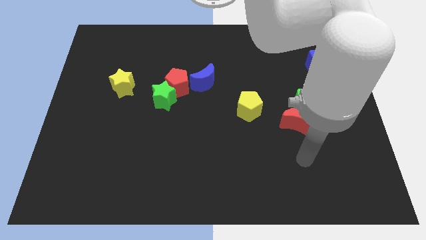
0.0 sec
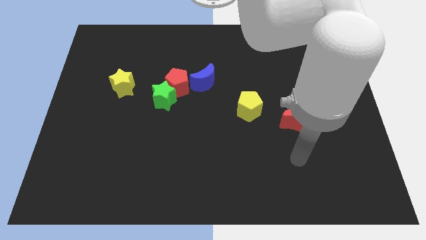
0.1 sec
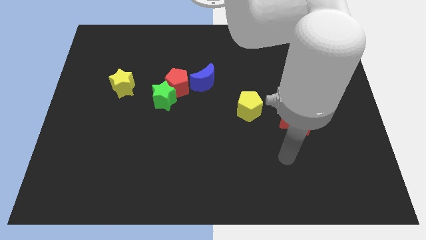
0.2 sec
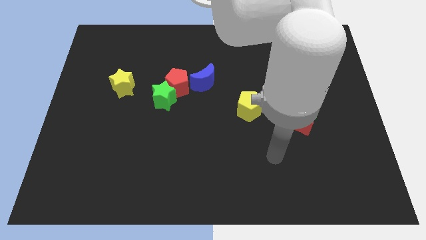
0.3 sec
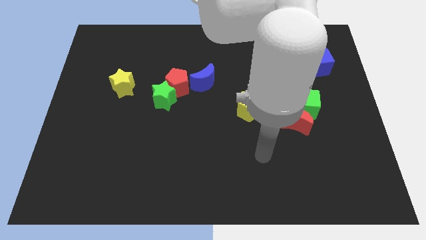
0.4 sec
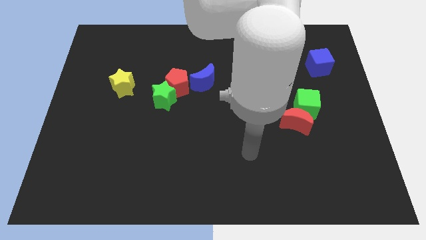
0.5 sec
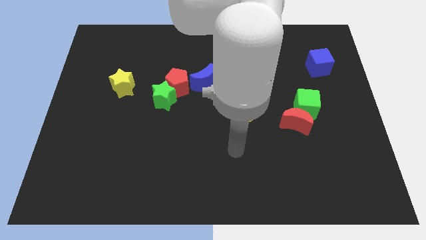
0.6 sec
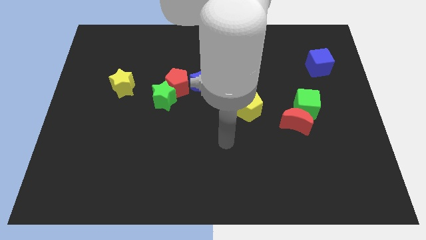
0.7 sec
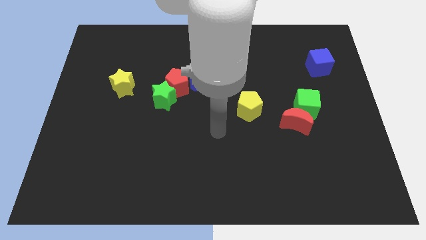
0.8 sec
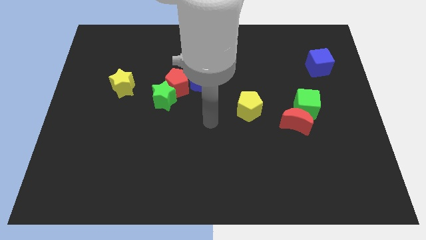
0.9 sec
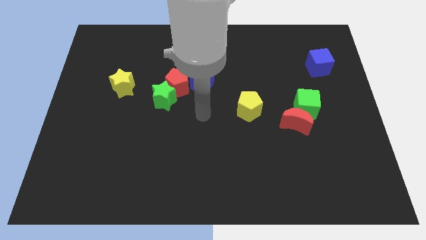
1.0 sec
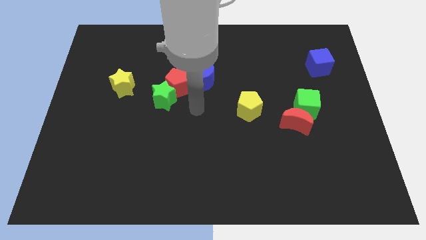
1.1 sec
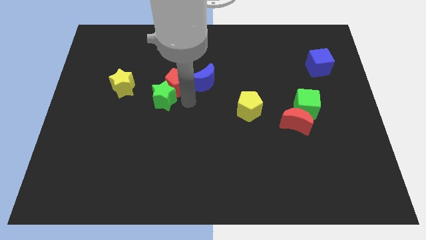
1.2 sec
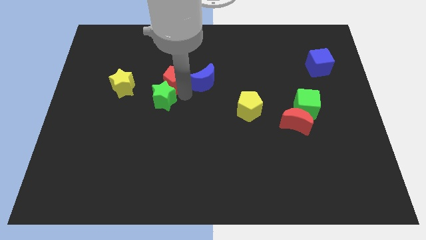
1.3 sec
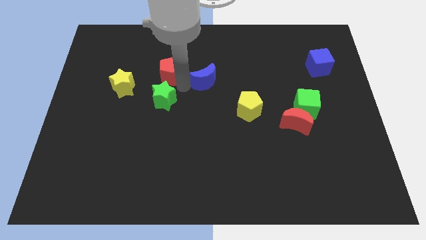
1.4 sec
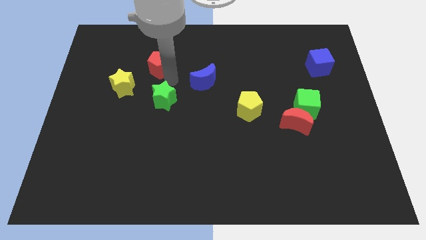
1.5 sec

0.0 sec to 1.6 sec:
pull the green star apart from the red pentagon

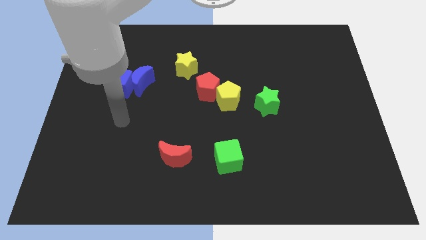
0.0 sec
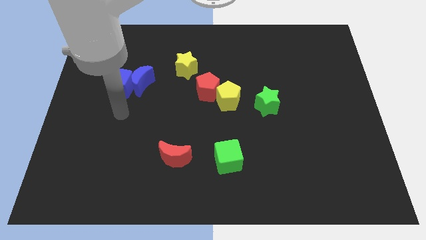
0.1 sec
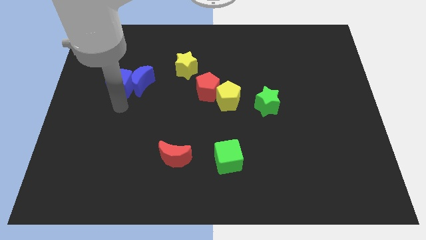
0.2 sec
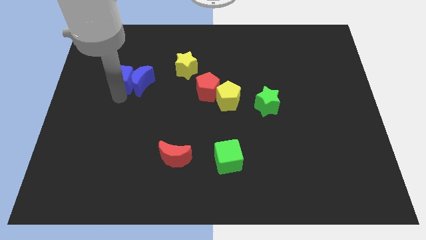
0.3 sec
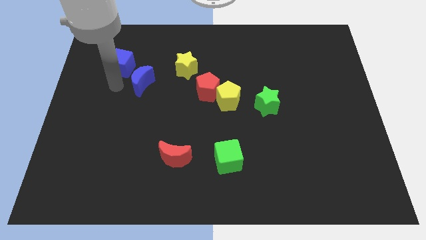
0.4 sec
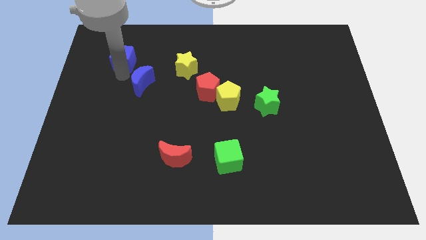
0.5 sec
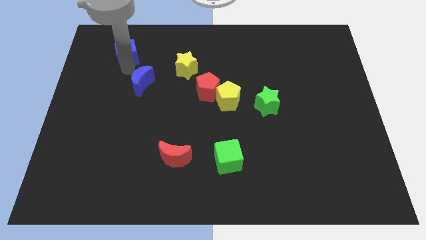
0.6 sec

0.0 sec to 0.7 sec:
move the blue moon away from the blue cube

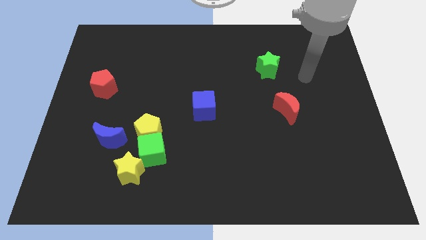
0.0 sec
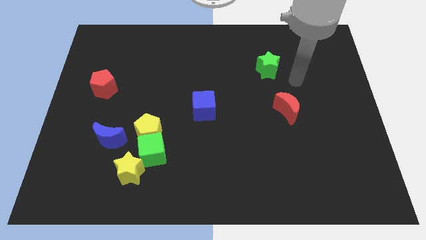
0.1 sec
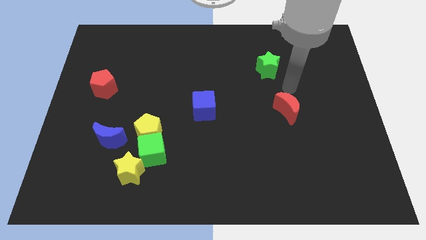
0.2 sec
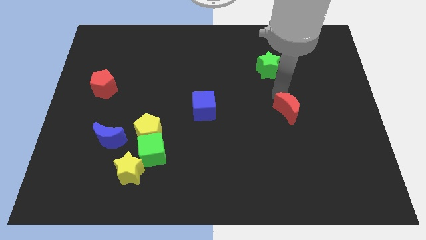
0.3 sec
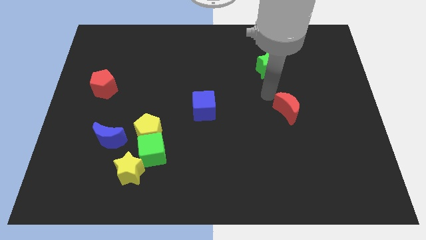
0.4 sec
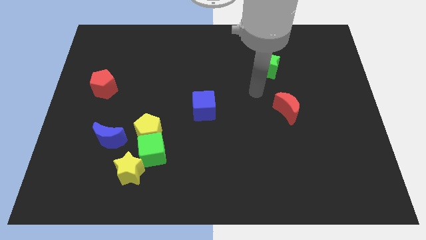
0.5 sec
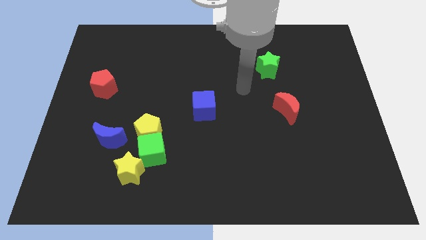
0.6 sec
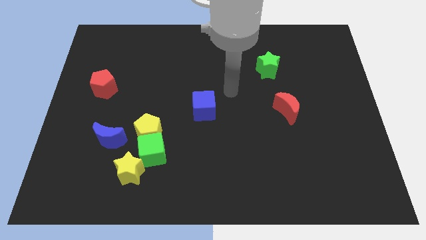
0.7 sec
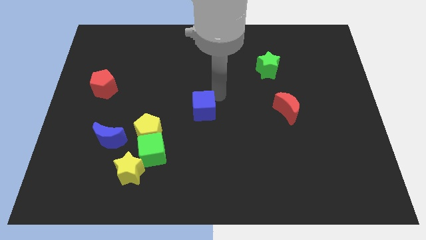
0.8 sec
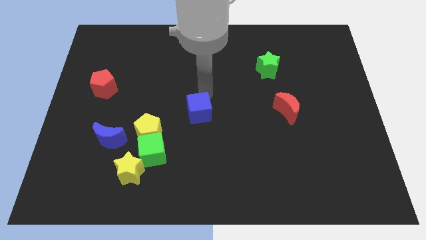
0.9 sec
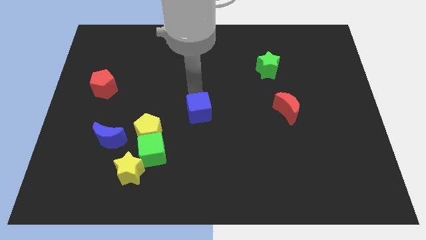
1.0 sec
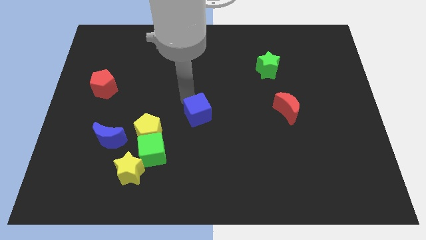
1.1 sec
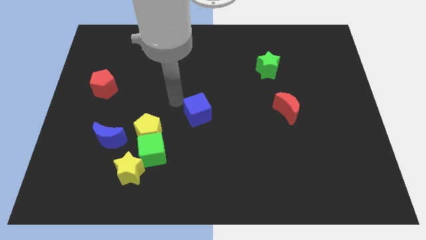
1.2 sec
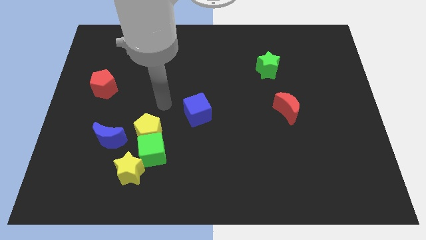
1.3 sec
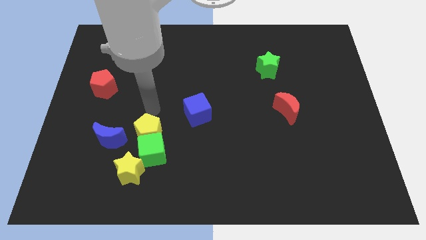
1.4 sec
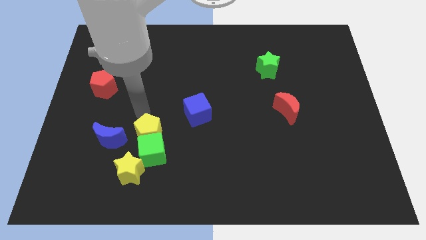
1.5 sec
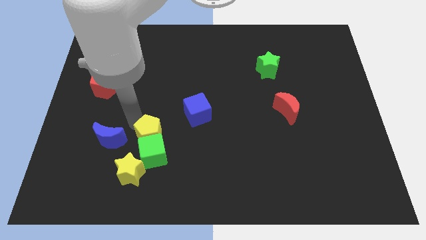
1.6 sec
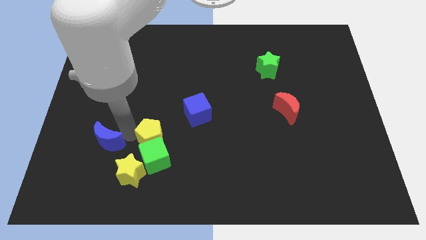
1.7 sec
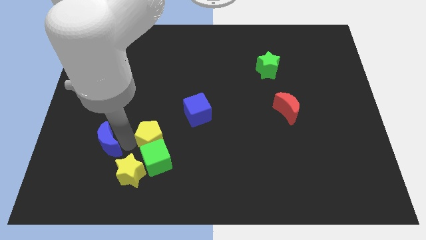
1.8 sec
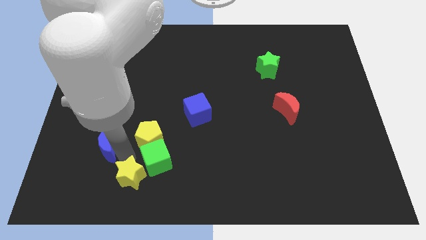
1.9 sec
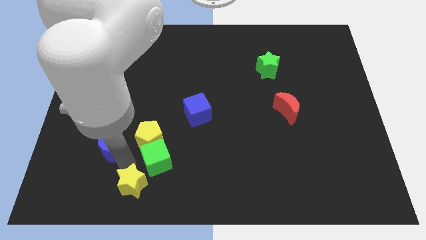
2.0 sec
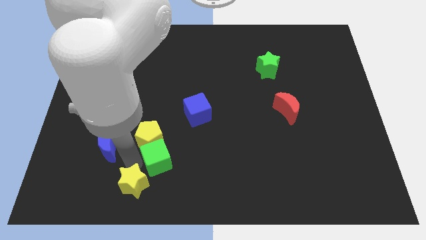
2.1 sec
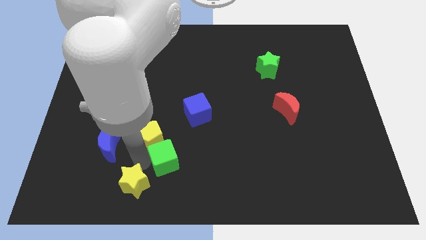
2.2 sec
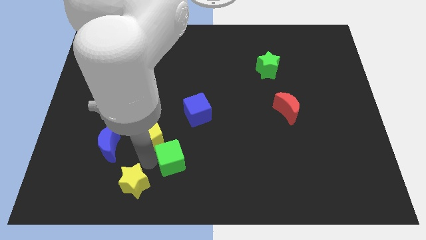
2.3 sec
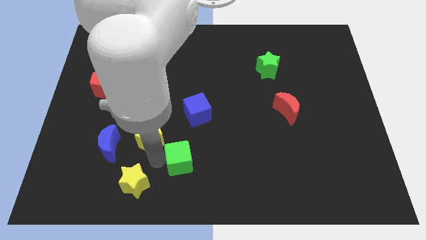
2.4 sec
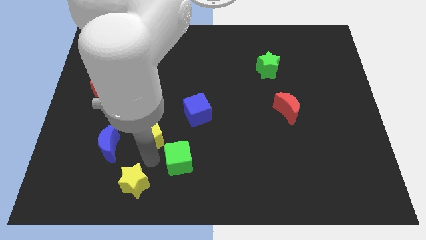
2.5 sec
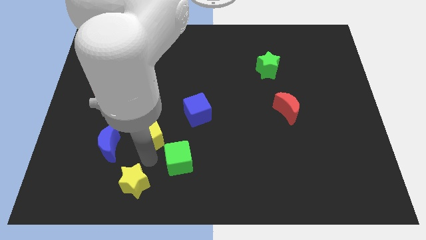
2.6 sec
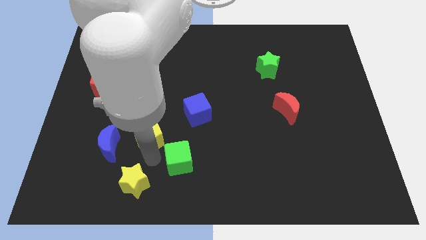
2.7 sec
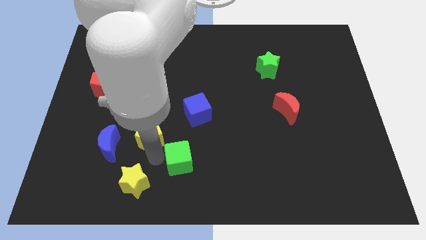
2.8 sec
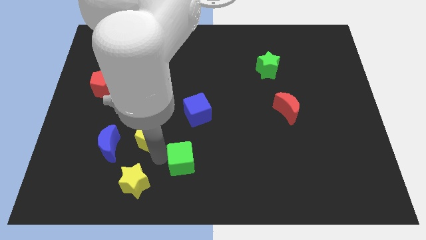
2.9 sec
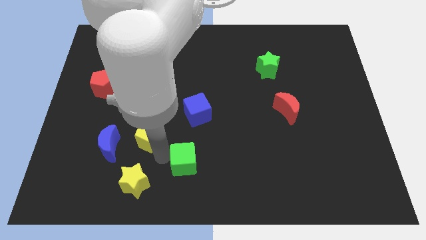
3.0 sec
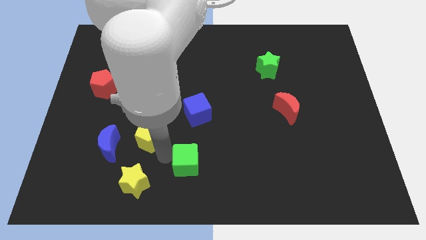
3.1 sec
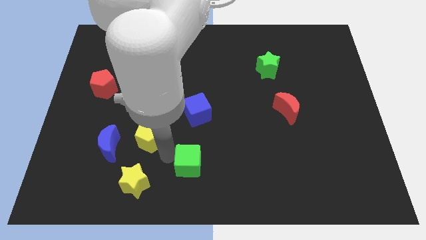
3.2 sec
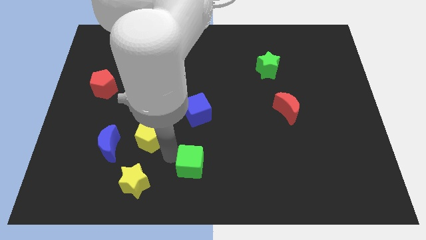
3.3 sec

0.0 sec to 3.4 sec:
move the green cube away from the yellow pentagon and yellow star

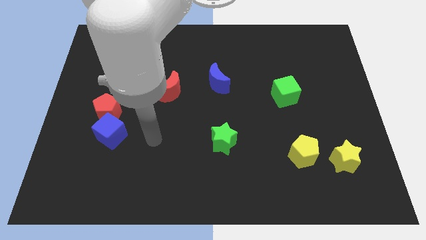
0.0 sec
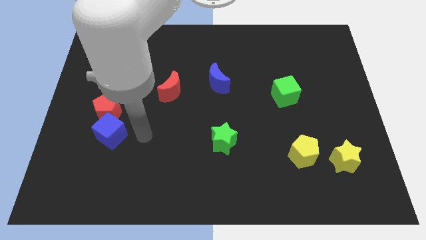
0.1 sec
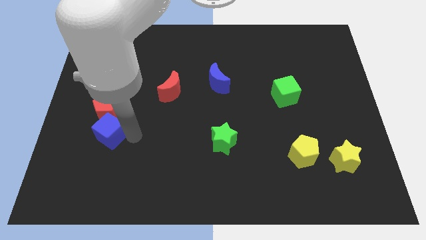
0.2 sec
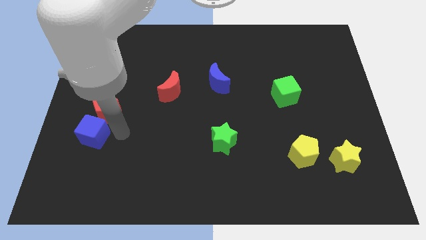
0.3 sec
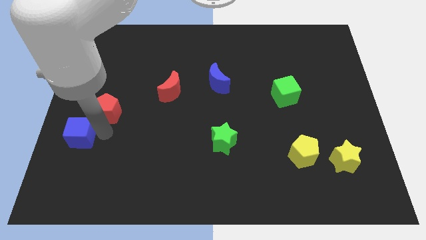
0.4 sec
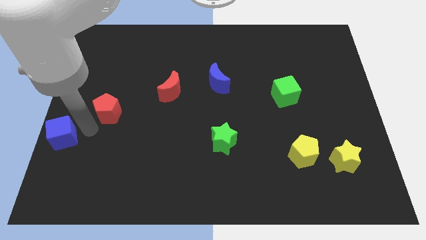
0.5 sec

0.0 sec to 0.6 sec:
move the red pentagon away from the blue cube

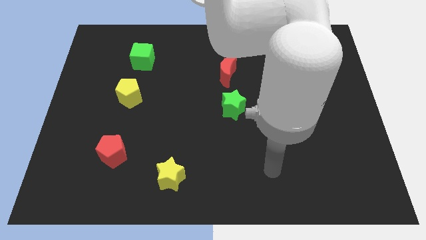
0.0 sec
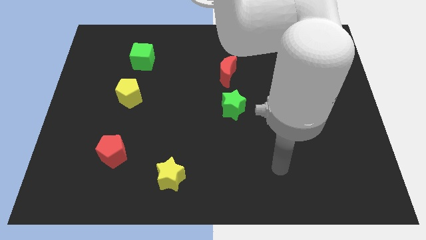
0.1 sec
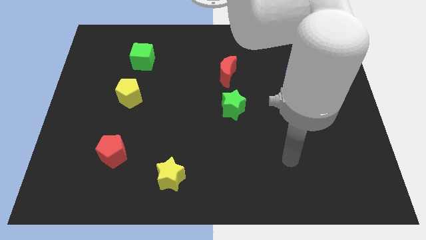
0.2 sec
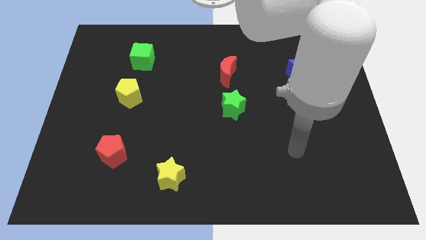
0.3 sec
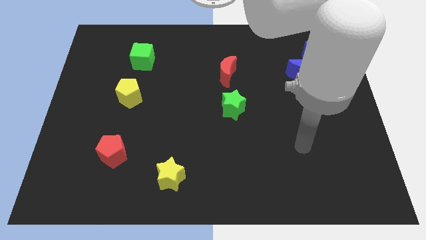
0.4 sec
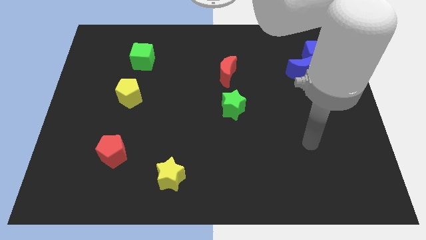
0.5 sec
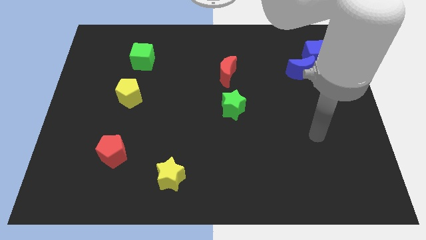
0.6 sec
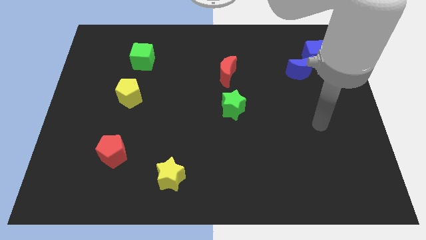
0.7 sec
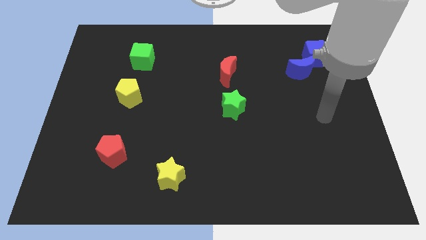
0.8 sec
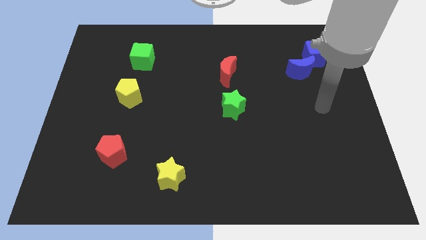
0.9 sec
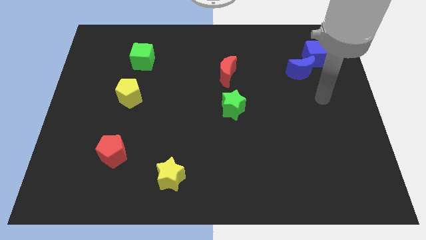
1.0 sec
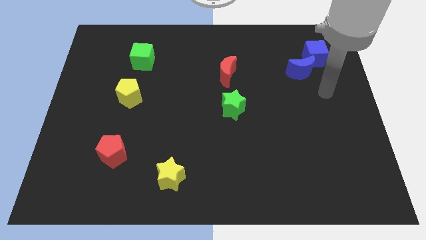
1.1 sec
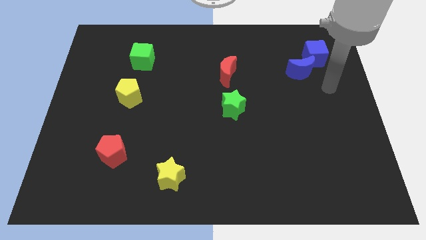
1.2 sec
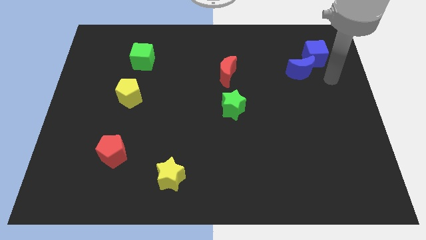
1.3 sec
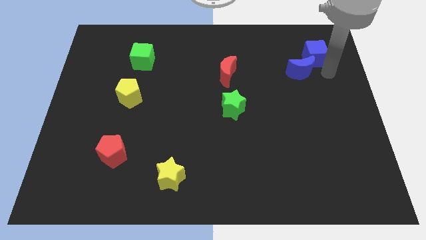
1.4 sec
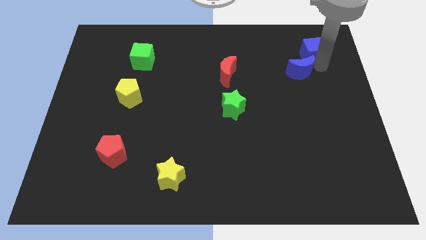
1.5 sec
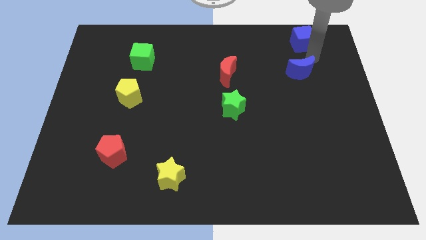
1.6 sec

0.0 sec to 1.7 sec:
separate the blue moon from the blue cube

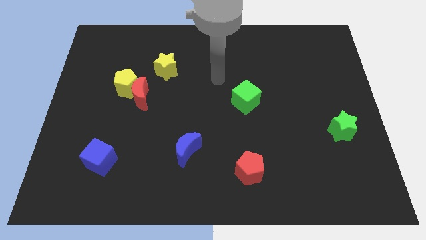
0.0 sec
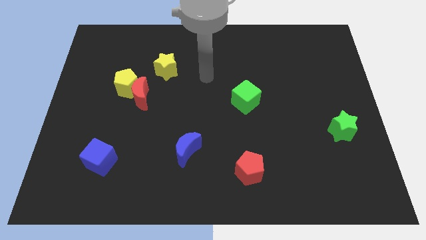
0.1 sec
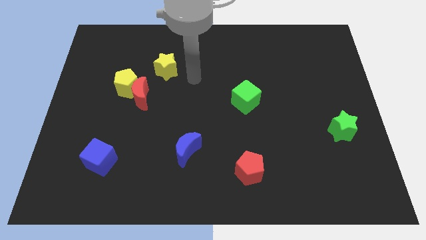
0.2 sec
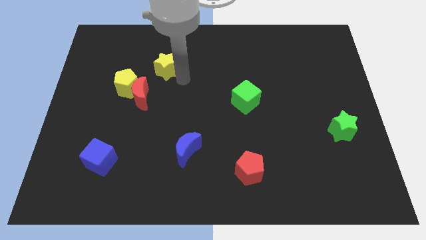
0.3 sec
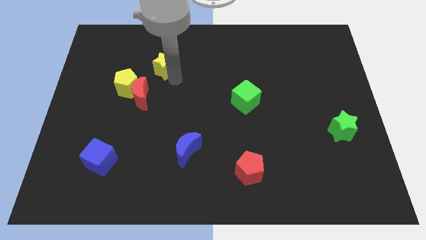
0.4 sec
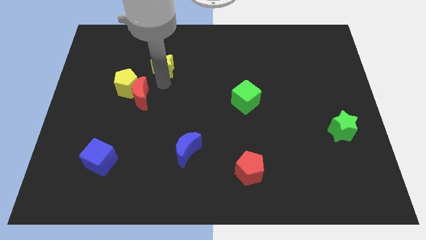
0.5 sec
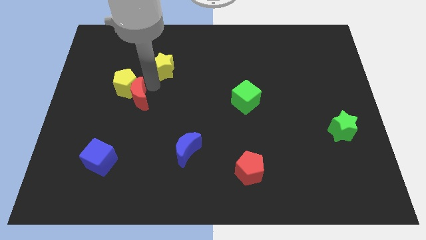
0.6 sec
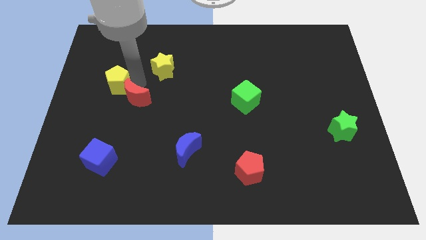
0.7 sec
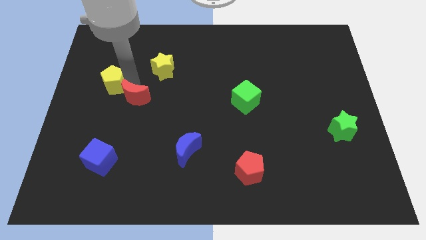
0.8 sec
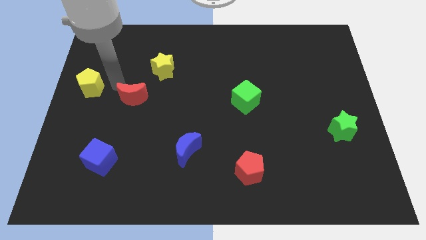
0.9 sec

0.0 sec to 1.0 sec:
move the red moon away from the yellow pentagon

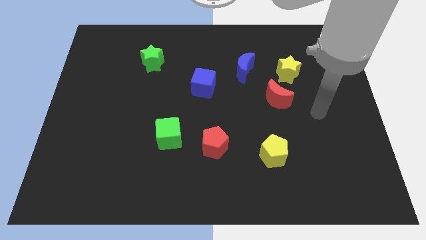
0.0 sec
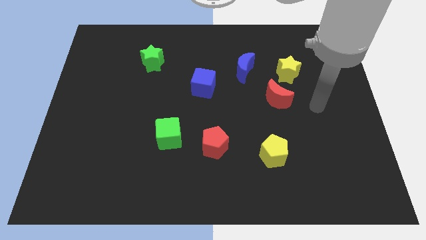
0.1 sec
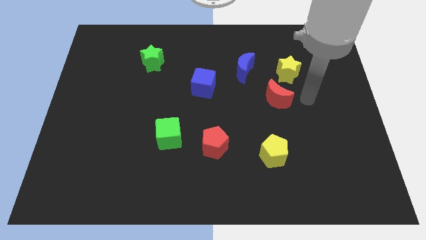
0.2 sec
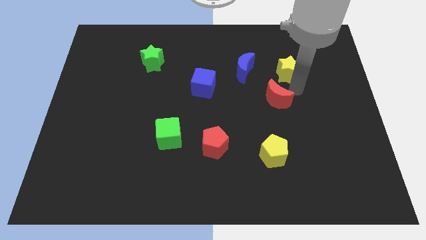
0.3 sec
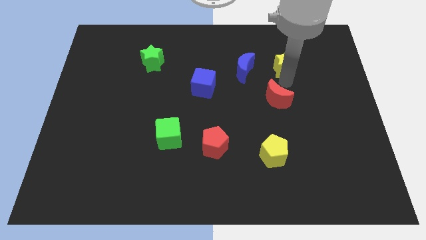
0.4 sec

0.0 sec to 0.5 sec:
separate the red moon from the yellow star
